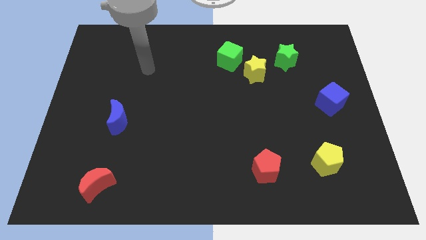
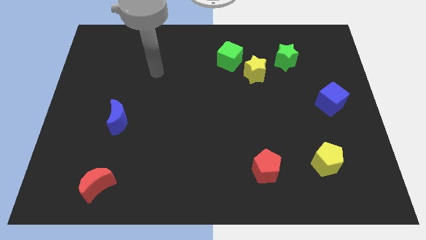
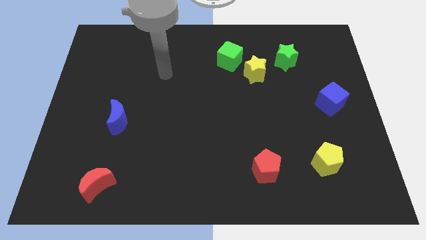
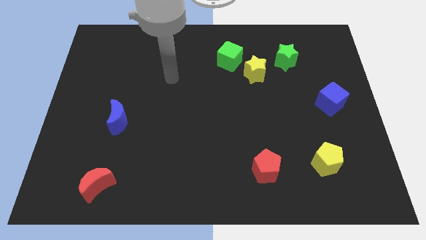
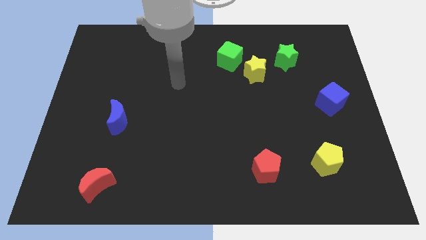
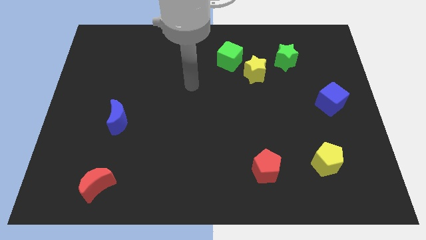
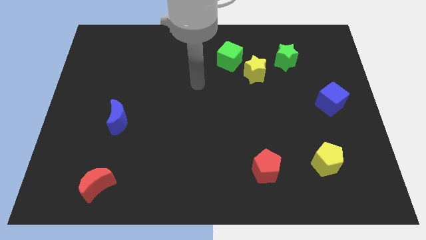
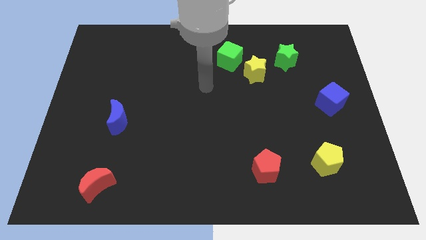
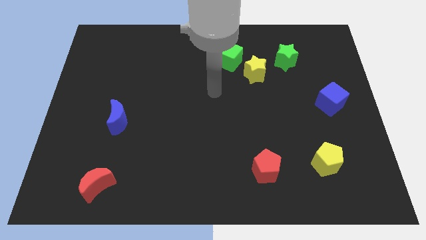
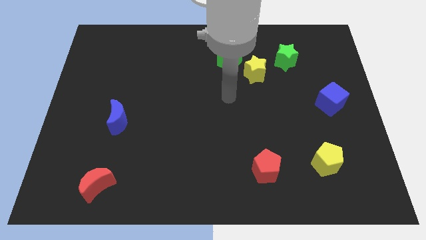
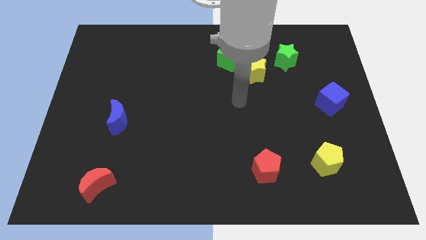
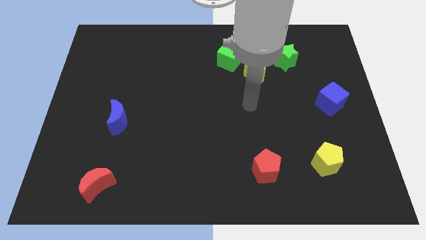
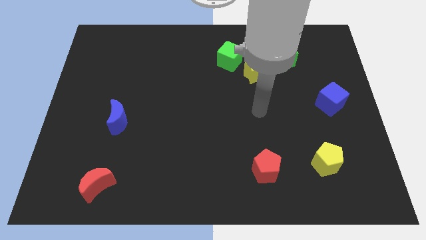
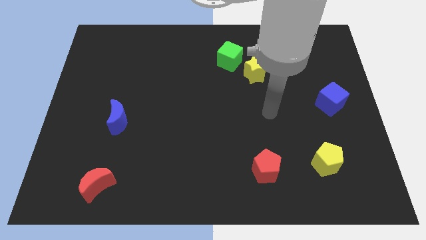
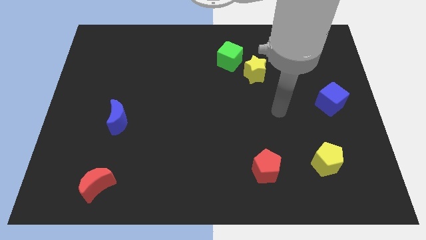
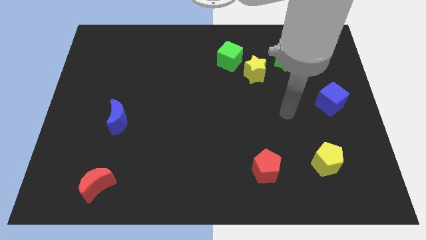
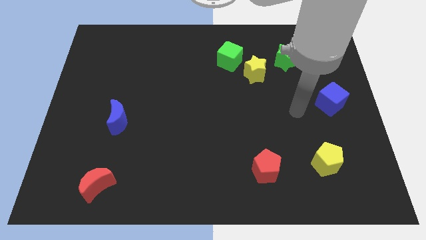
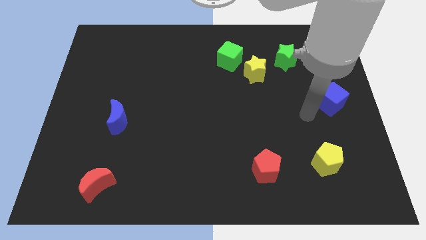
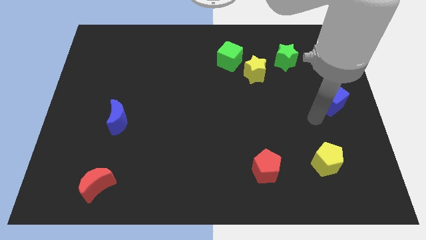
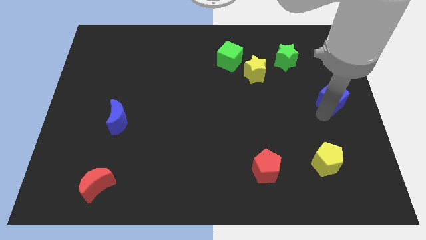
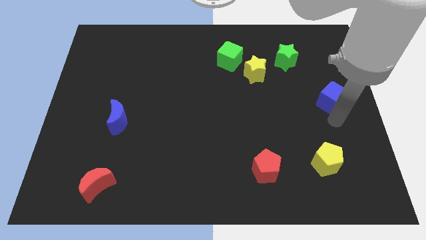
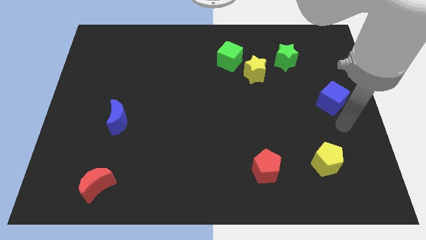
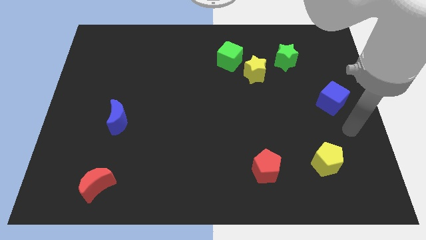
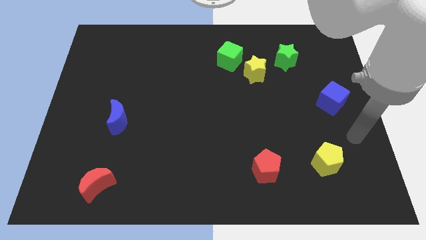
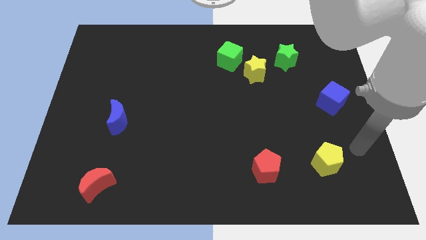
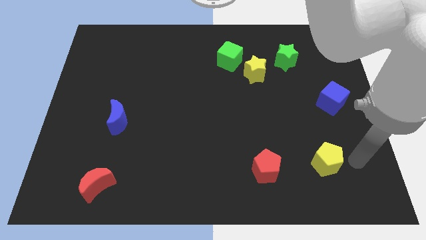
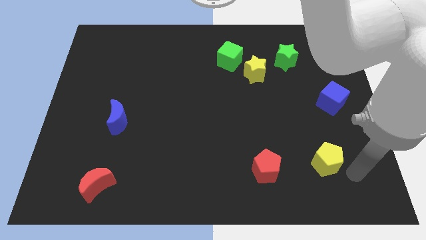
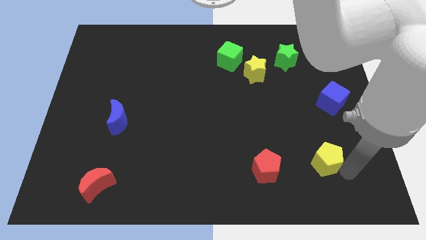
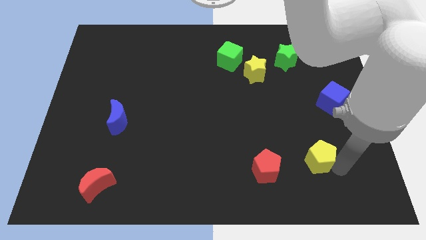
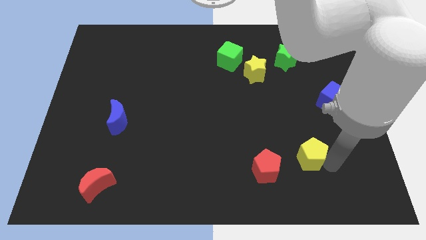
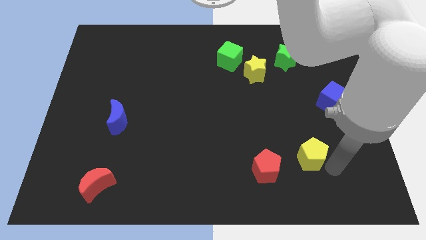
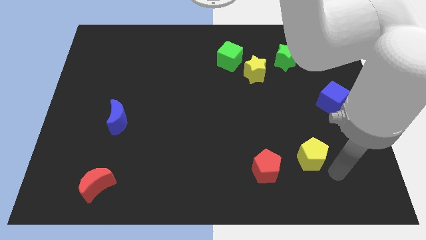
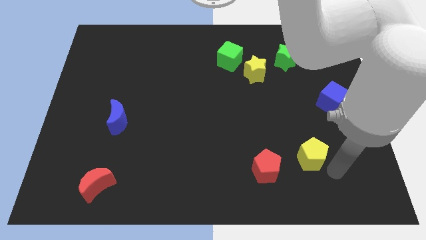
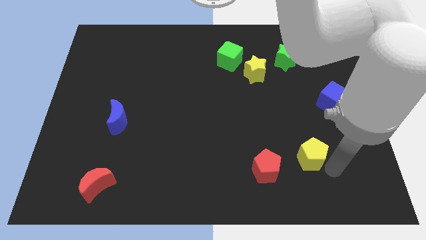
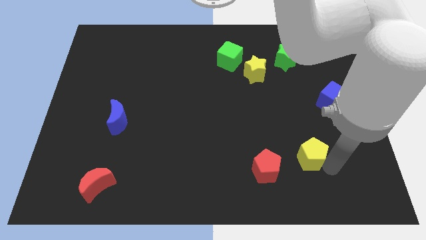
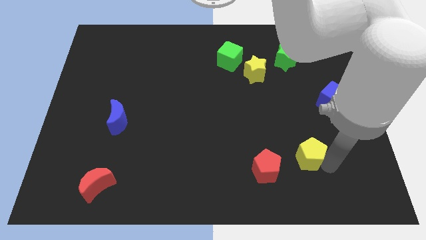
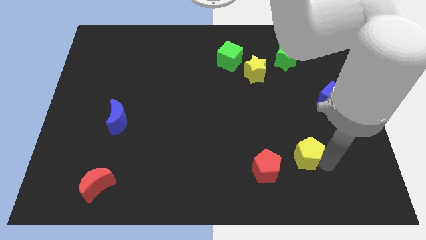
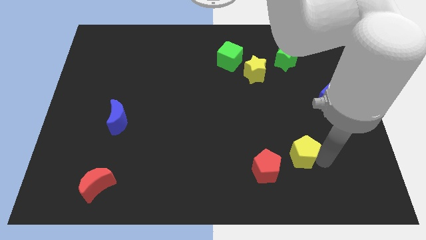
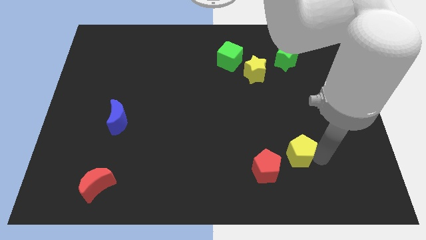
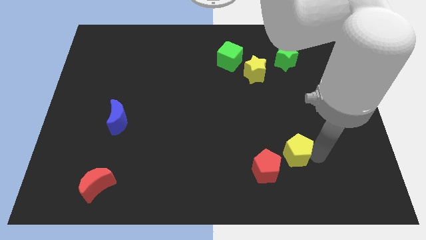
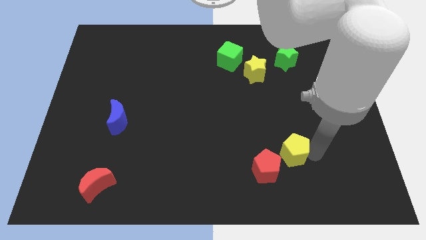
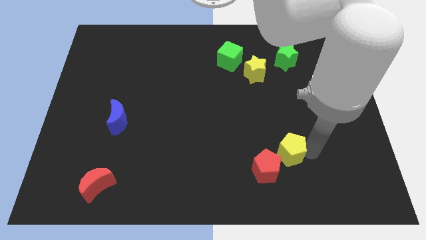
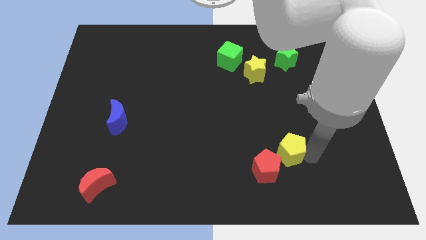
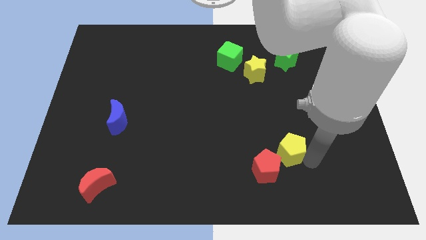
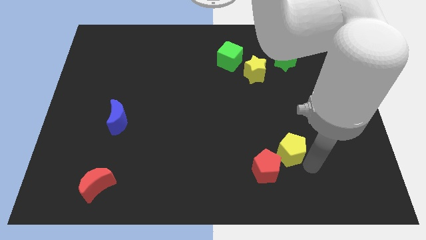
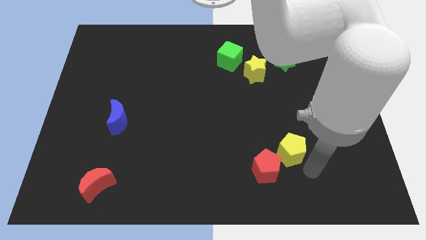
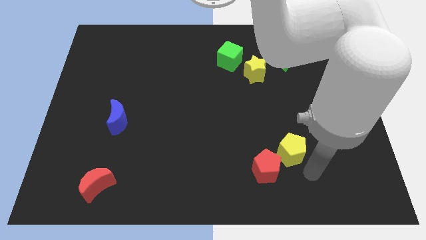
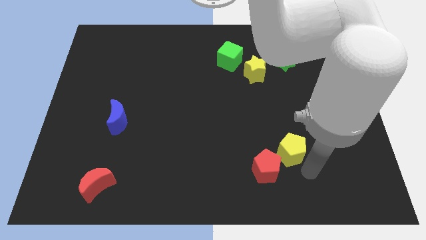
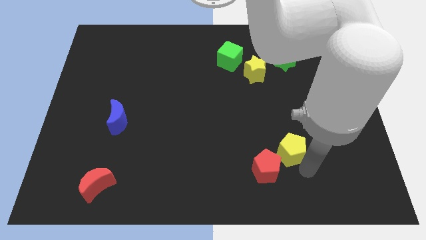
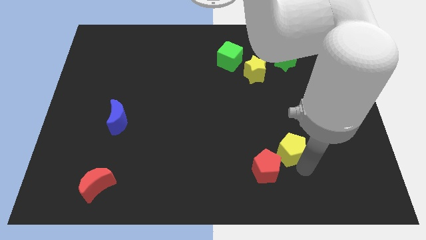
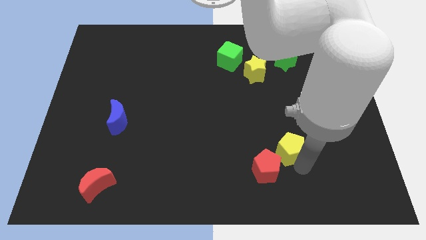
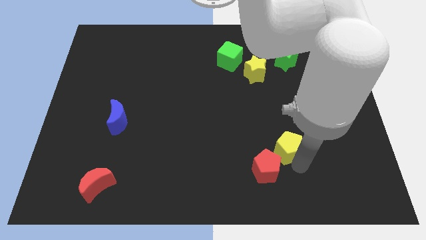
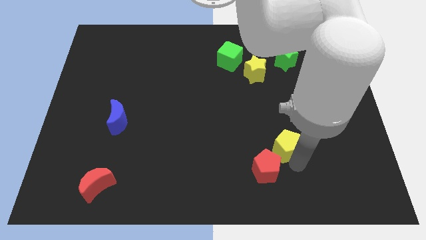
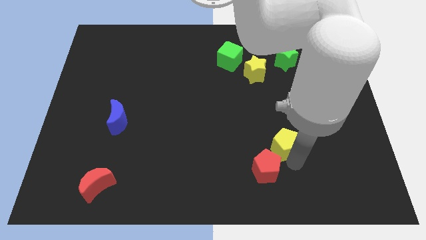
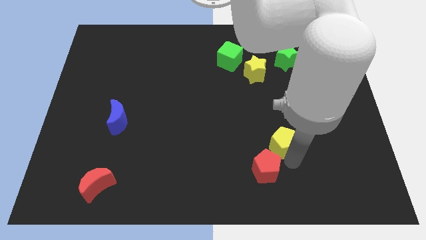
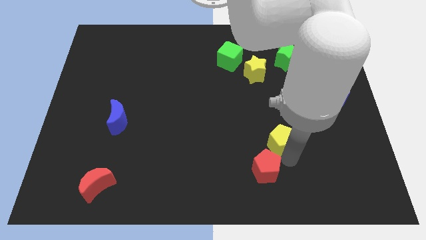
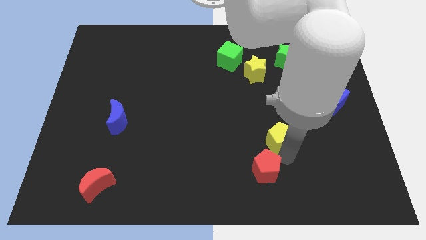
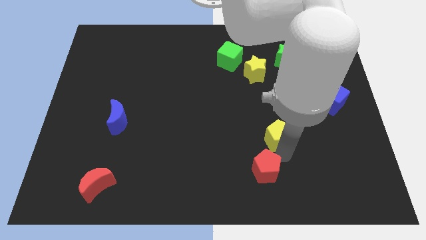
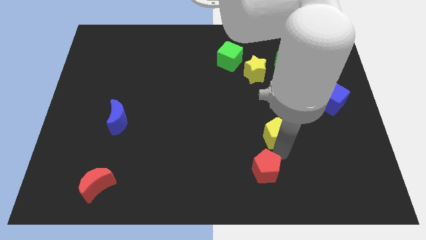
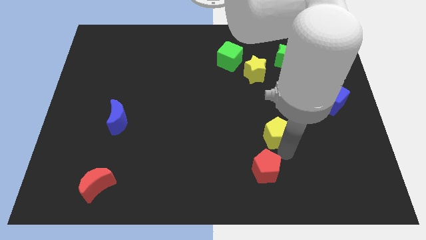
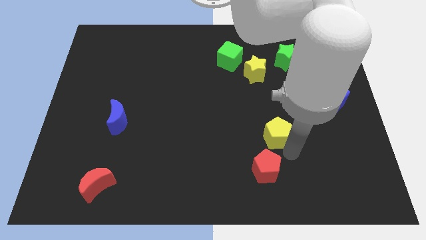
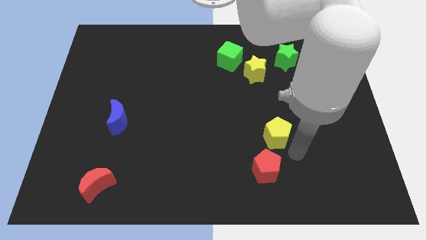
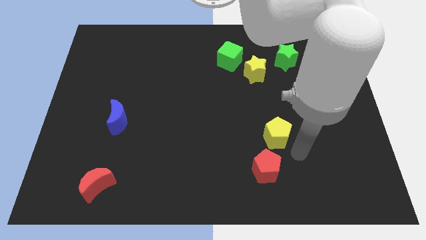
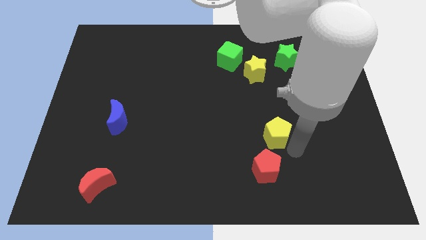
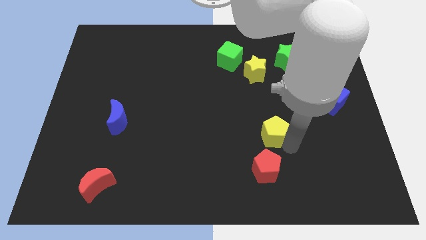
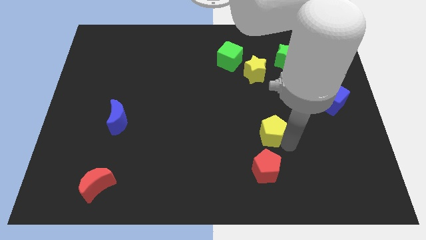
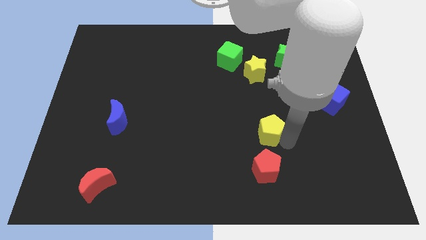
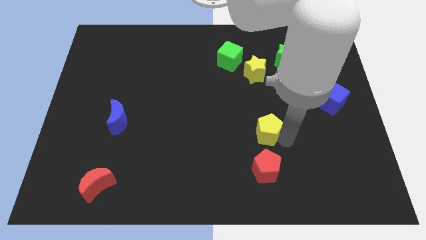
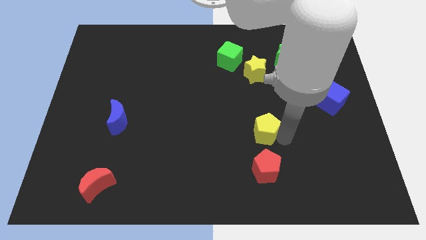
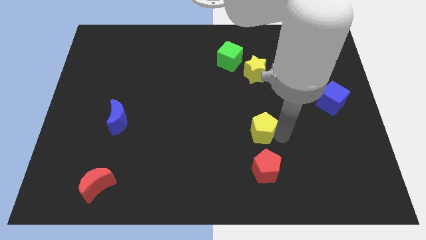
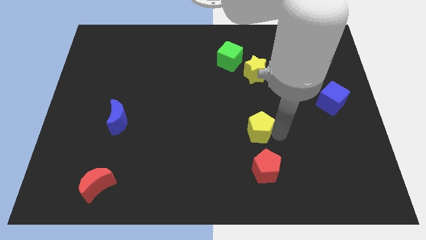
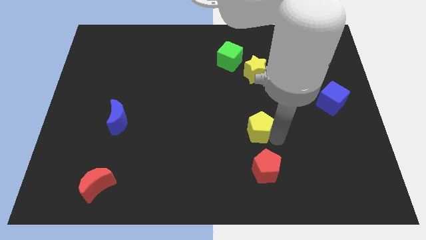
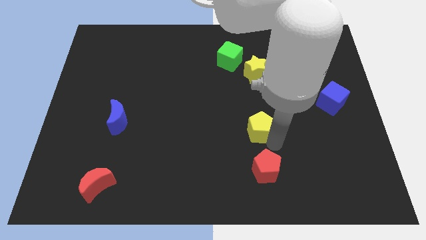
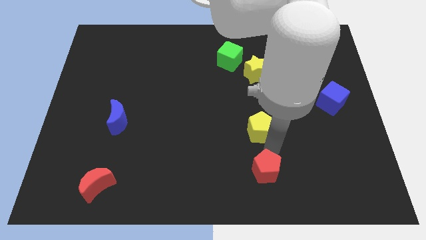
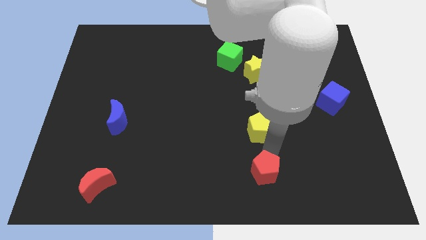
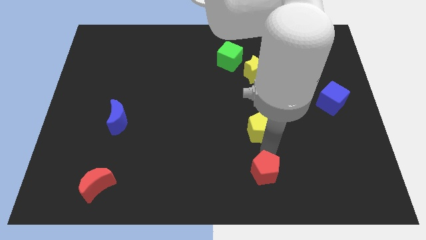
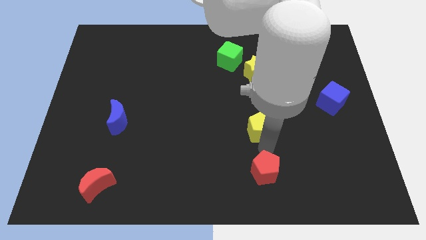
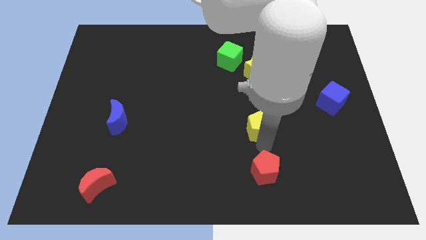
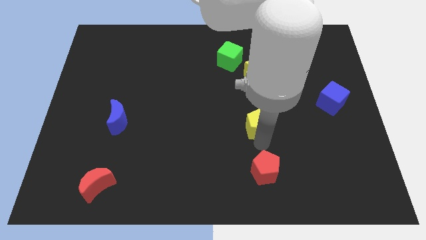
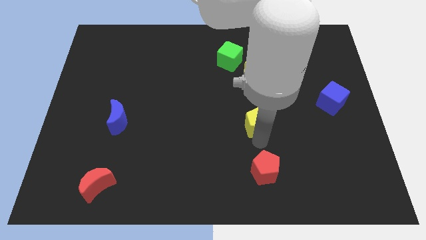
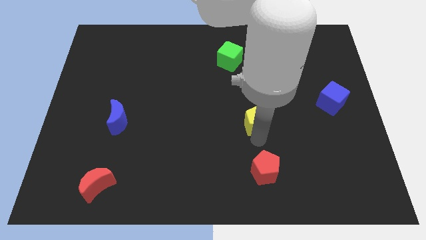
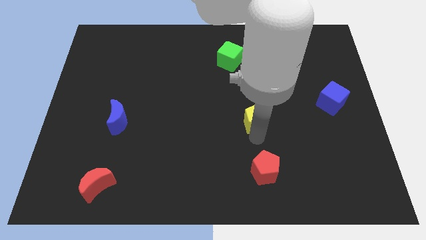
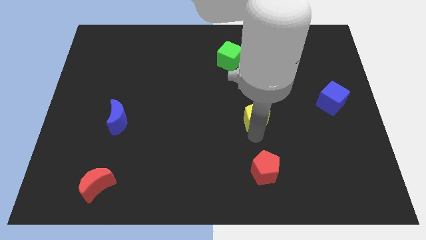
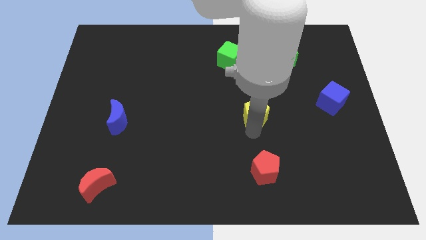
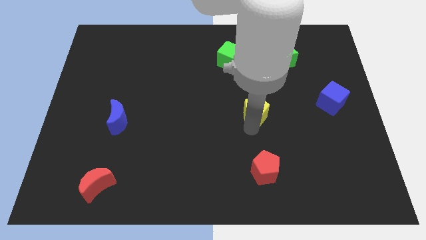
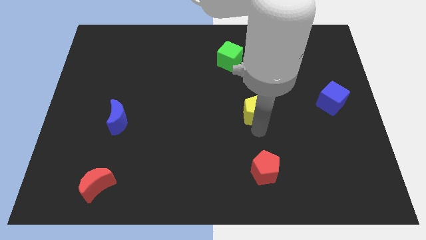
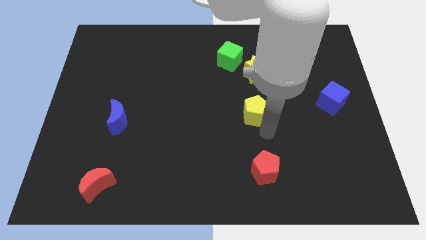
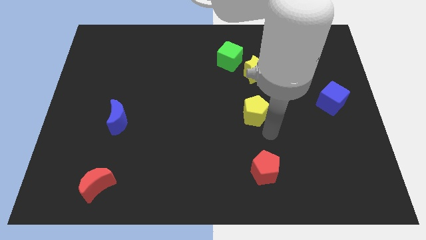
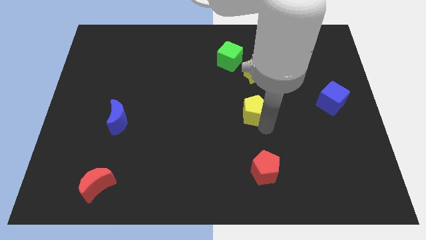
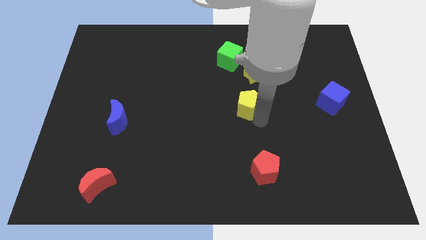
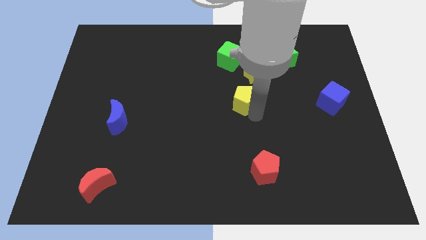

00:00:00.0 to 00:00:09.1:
push the yellow pentagon to the bottom left of the yellow star
